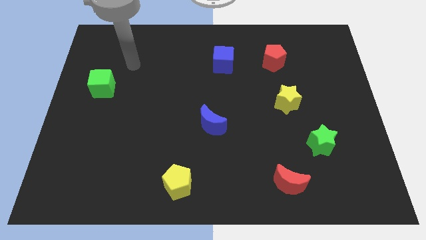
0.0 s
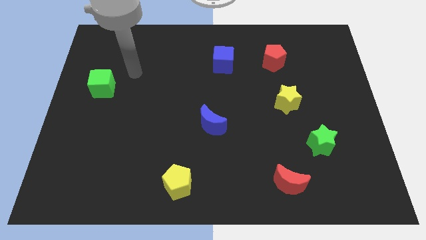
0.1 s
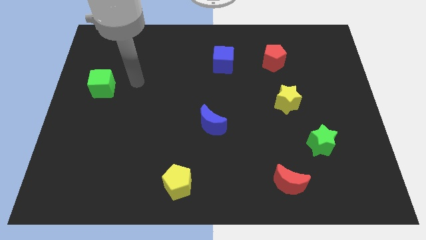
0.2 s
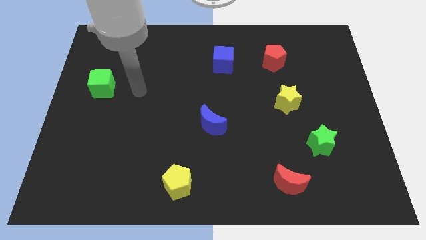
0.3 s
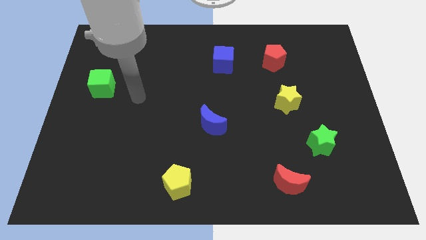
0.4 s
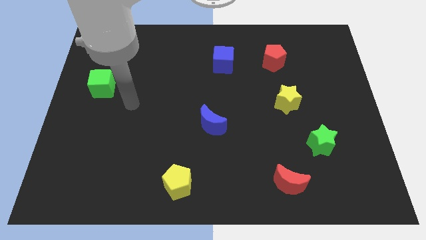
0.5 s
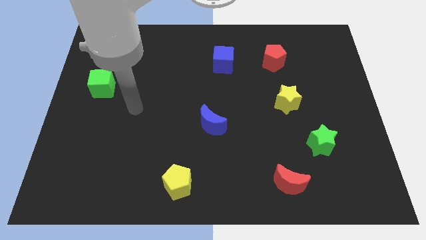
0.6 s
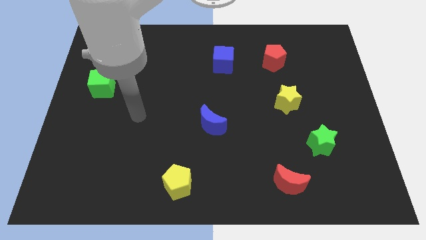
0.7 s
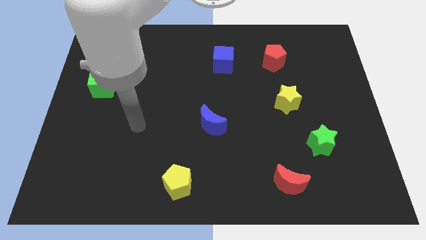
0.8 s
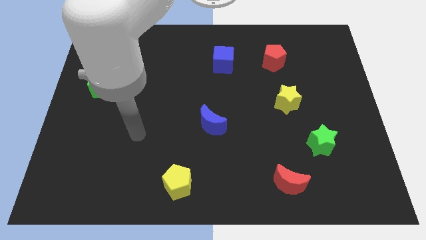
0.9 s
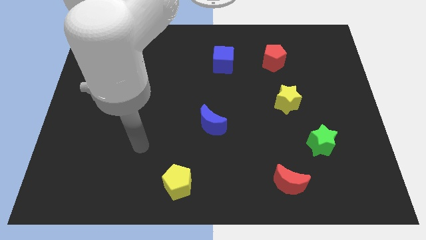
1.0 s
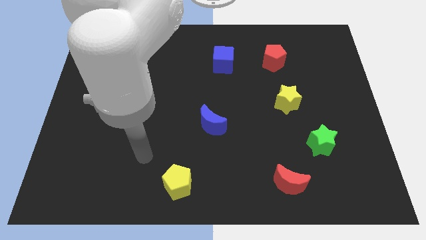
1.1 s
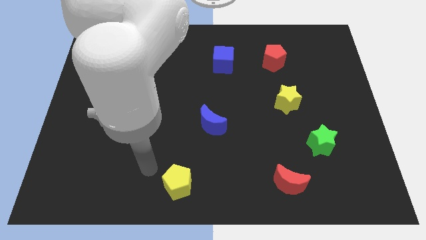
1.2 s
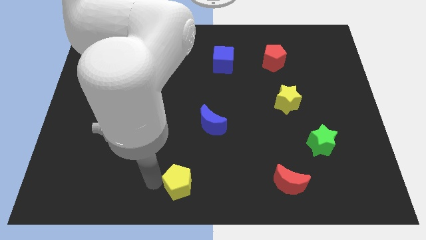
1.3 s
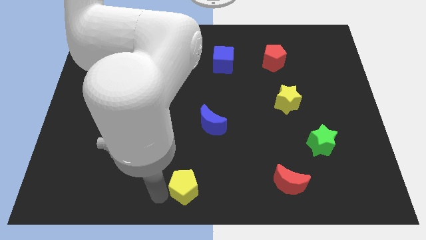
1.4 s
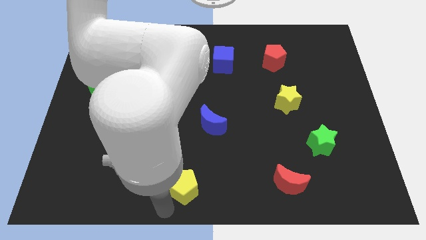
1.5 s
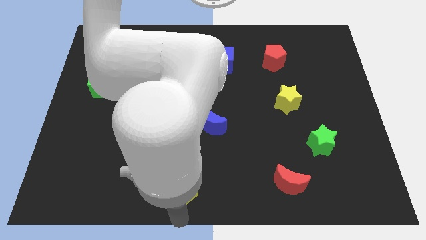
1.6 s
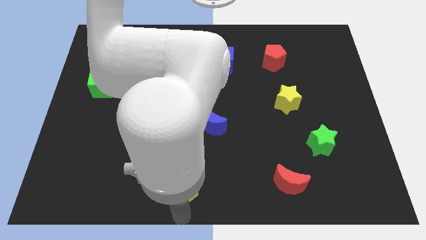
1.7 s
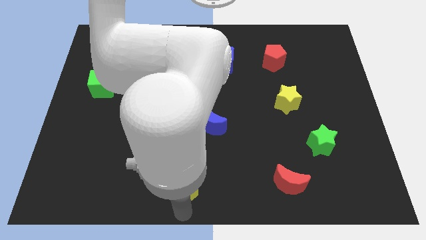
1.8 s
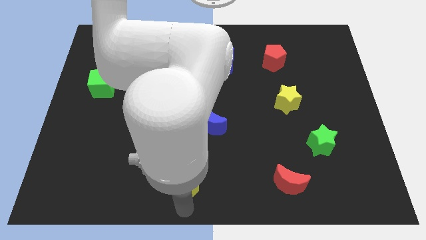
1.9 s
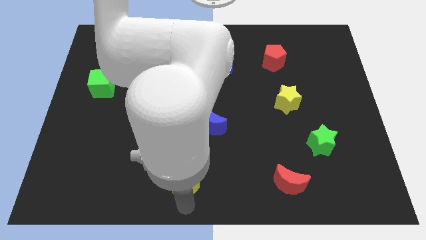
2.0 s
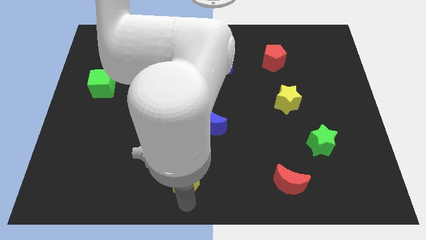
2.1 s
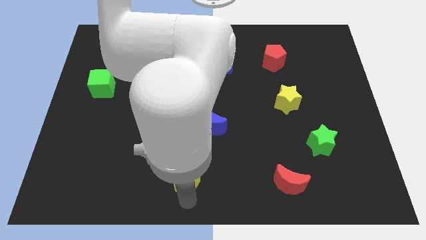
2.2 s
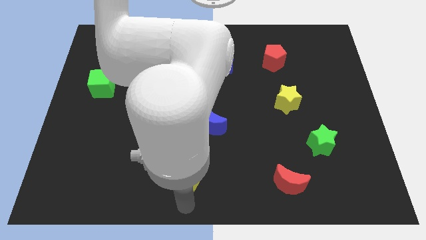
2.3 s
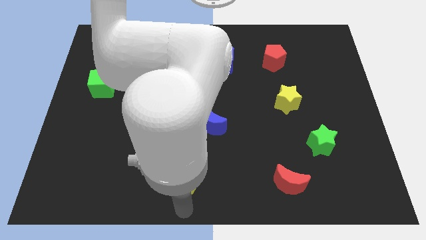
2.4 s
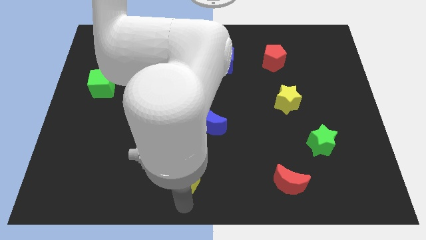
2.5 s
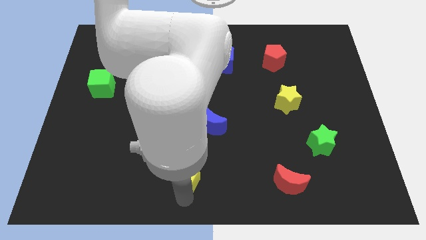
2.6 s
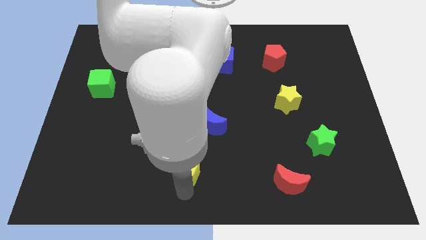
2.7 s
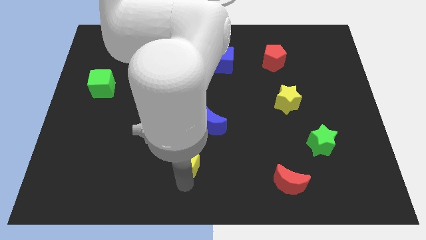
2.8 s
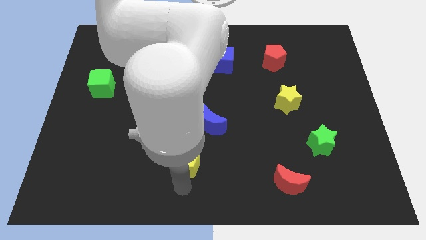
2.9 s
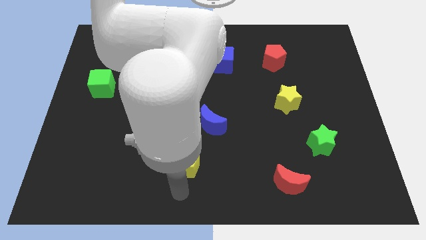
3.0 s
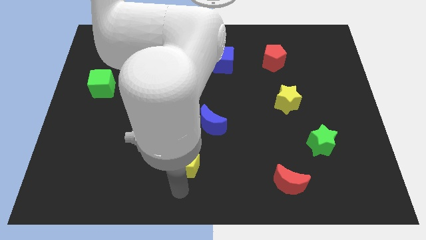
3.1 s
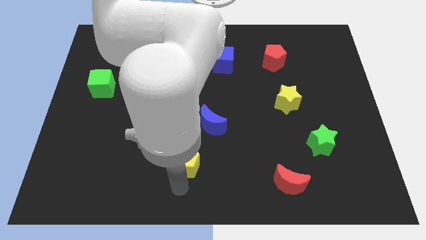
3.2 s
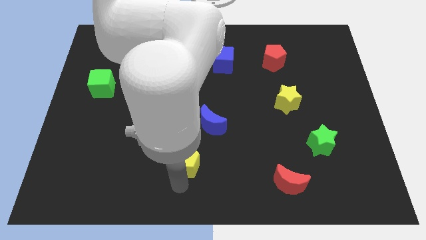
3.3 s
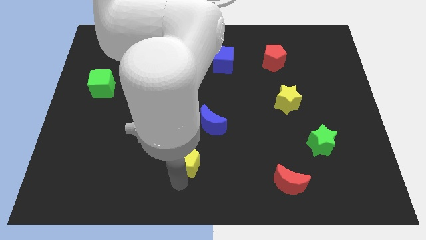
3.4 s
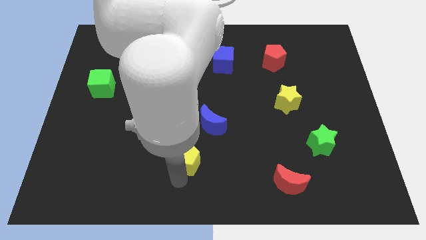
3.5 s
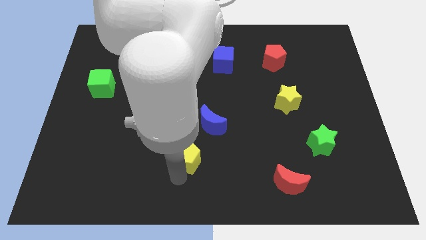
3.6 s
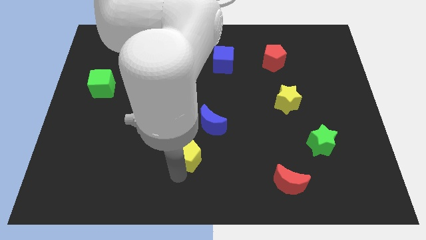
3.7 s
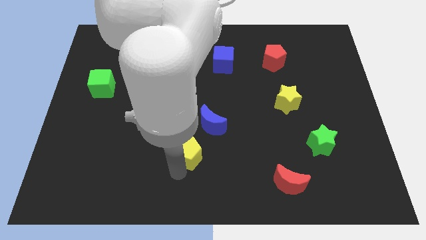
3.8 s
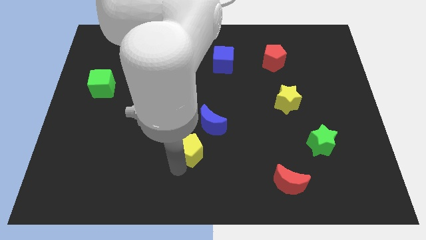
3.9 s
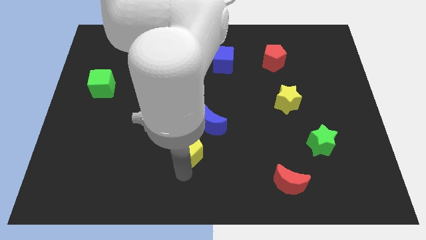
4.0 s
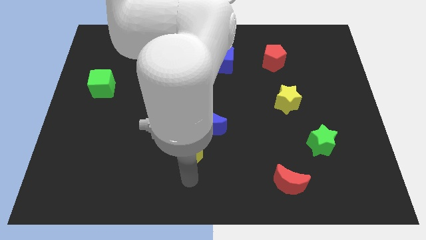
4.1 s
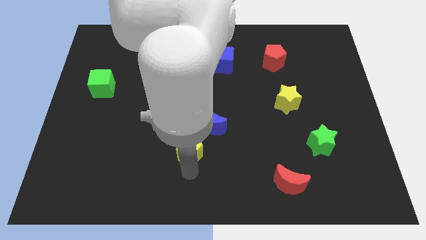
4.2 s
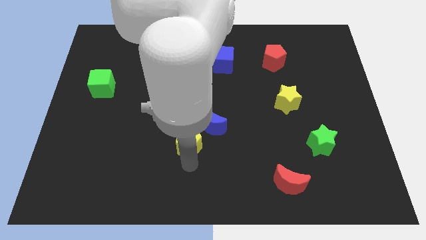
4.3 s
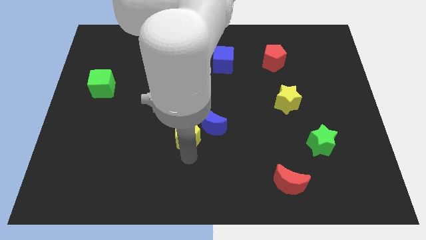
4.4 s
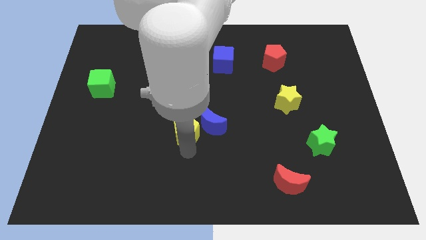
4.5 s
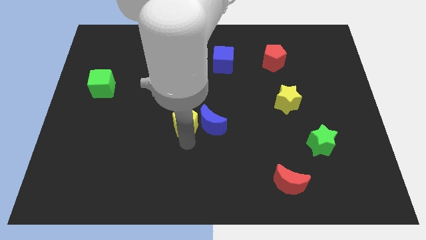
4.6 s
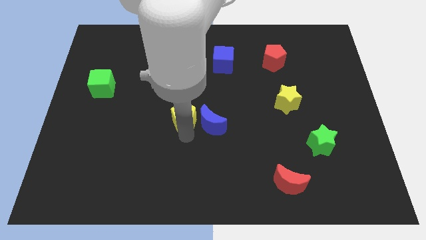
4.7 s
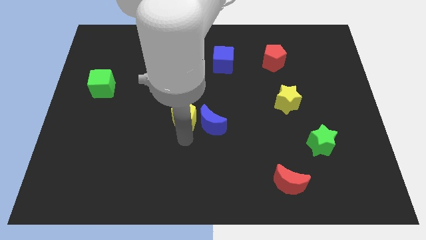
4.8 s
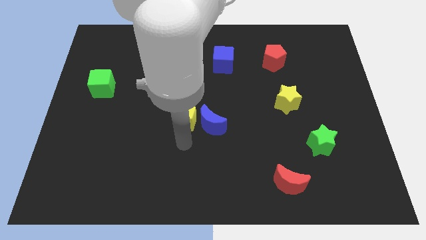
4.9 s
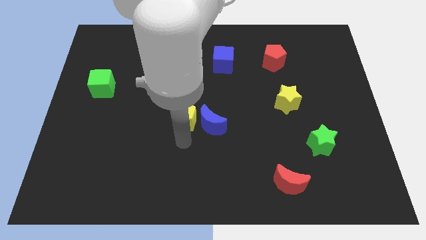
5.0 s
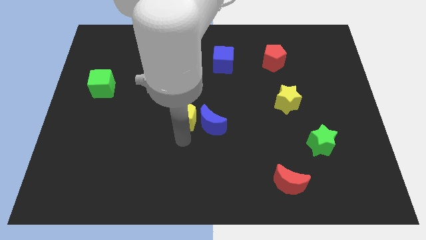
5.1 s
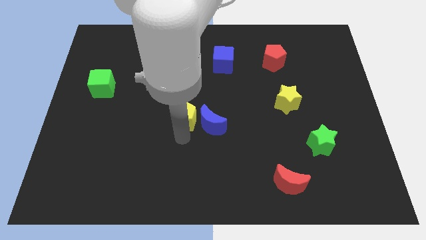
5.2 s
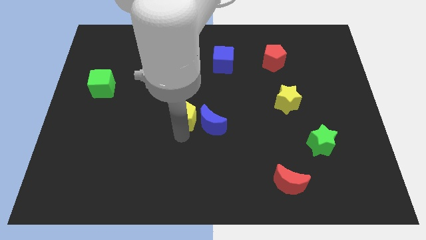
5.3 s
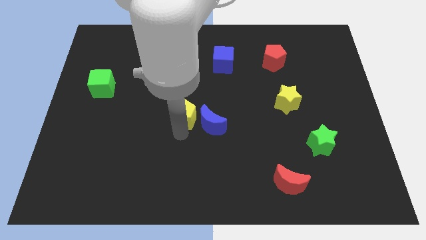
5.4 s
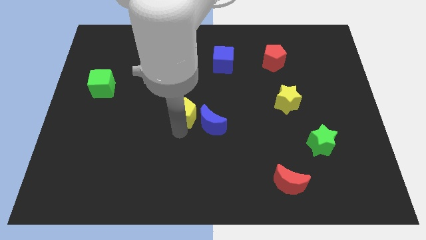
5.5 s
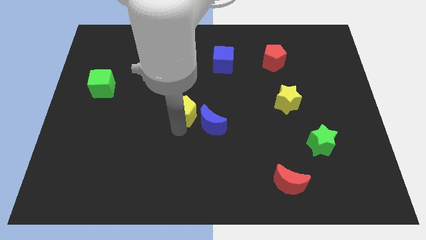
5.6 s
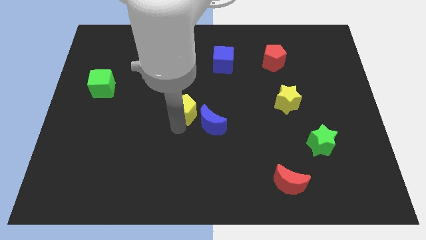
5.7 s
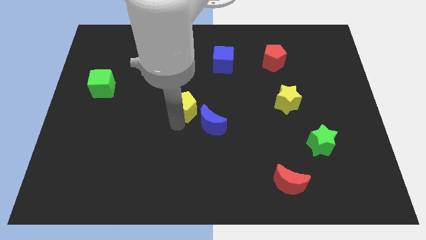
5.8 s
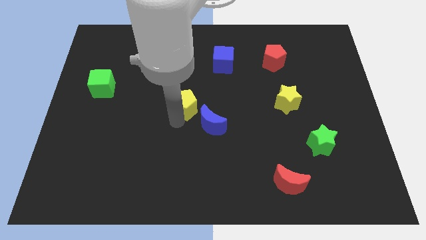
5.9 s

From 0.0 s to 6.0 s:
push the yellow pentagon up

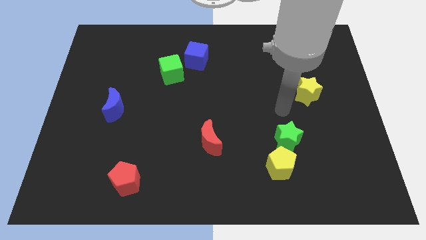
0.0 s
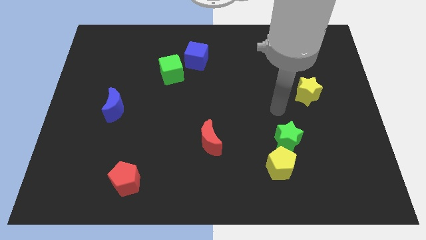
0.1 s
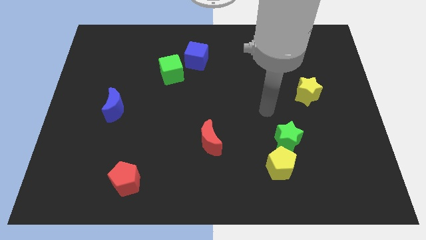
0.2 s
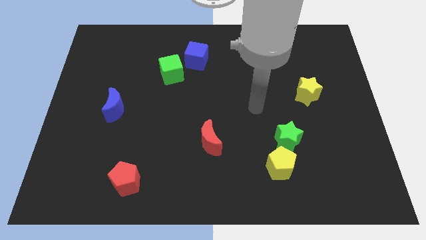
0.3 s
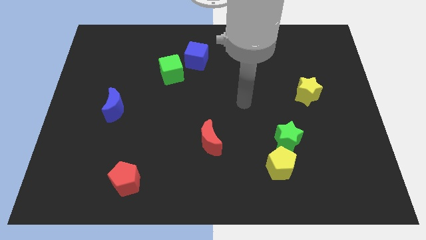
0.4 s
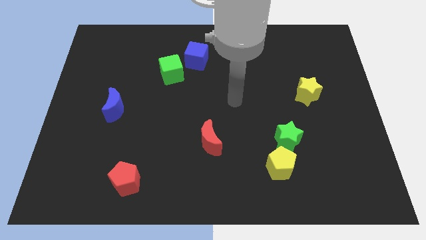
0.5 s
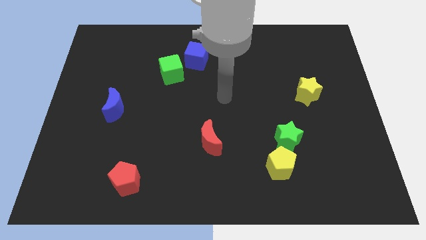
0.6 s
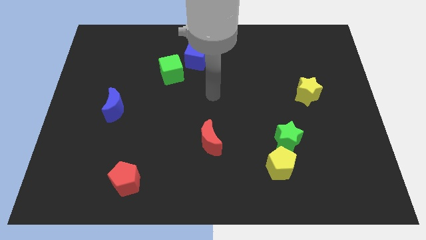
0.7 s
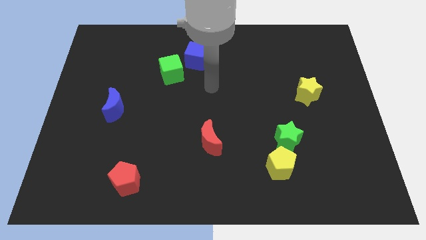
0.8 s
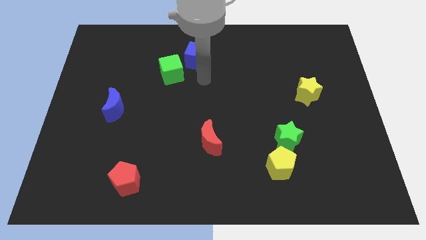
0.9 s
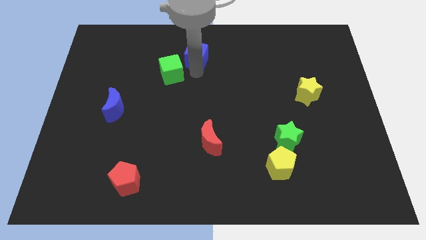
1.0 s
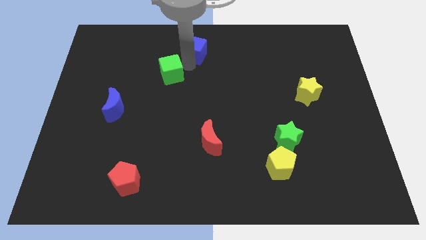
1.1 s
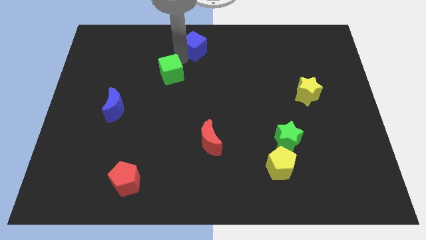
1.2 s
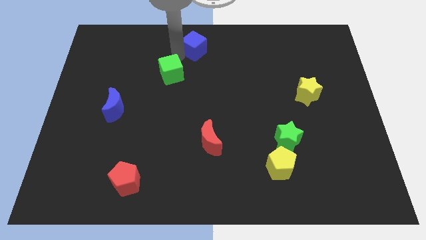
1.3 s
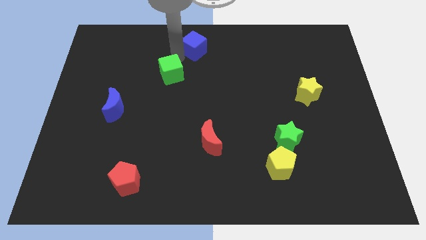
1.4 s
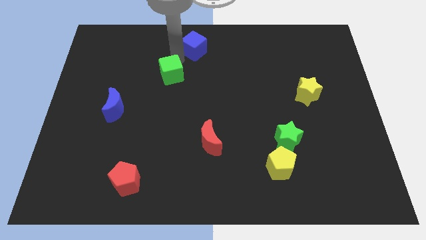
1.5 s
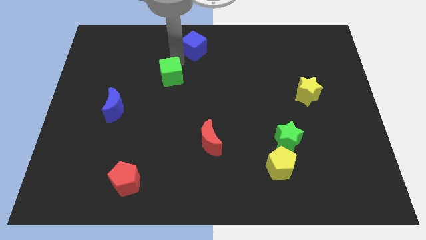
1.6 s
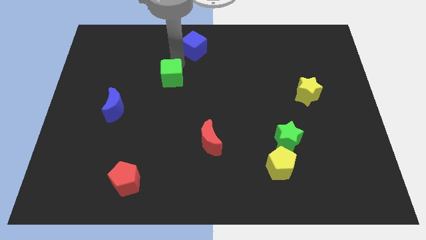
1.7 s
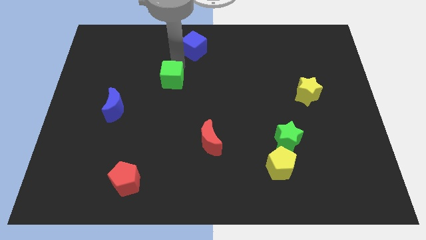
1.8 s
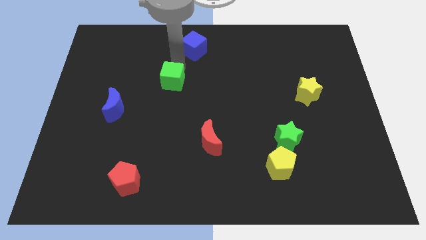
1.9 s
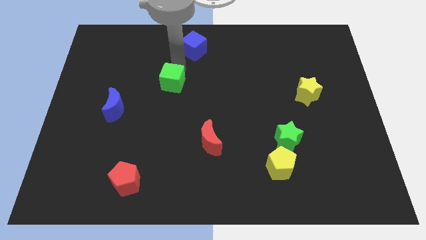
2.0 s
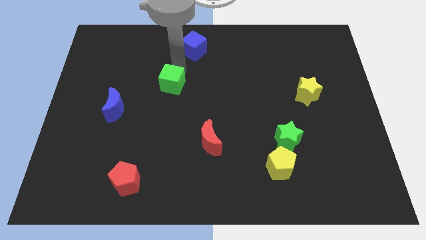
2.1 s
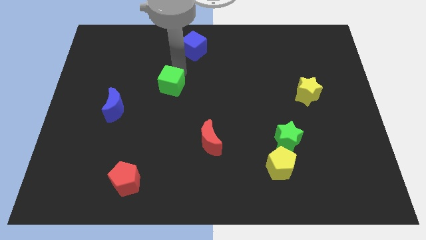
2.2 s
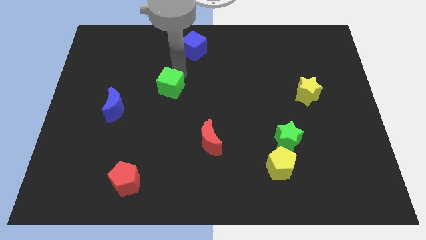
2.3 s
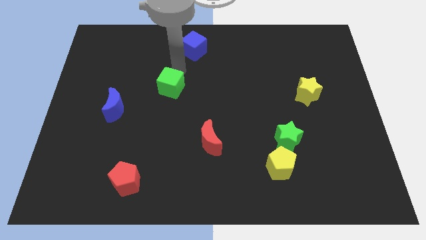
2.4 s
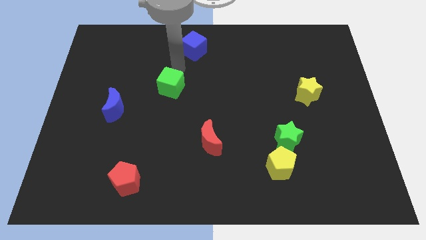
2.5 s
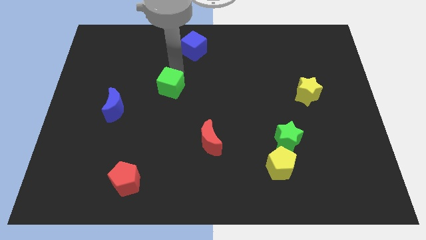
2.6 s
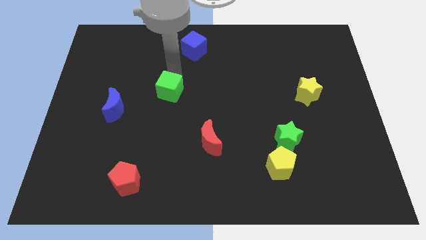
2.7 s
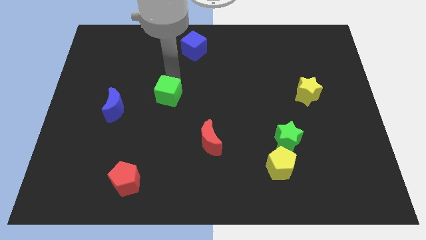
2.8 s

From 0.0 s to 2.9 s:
move the green cube downwards slightly
